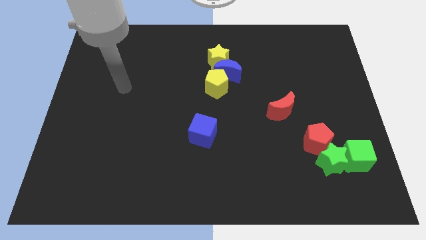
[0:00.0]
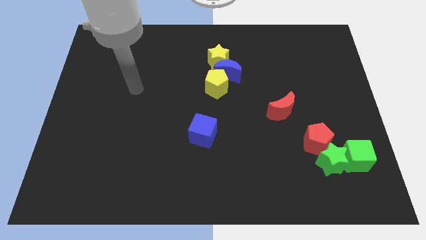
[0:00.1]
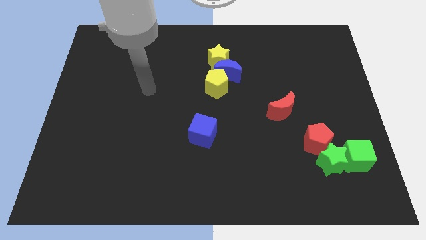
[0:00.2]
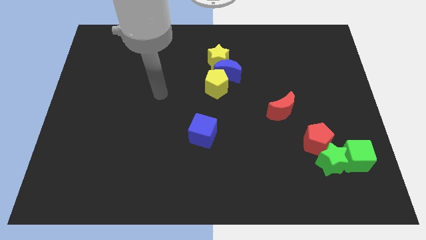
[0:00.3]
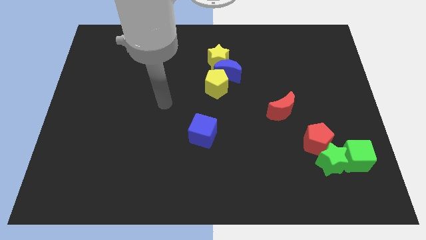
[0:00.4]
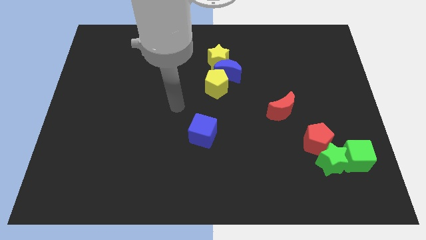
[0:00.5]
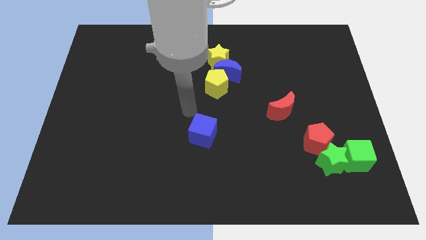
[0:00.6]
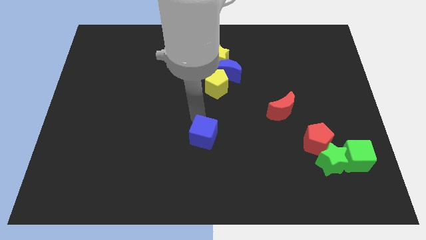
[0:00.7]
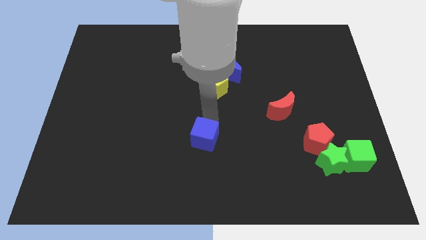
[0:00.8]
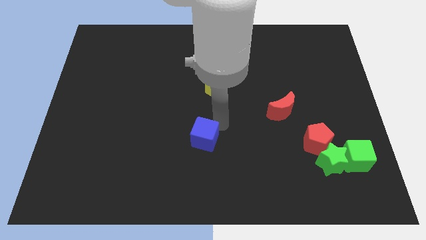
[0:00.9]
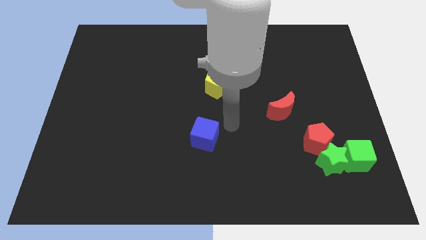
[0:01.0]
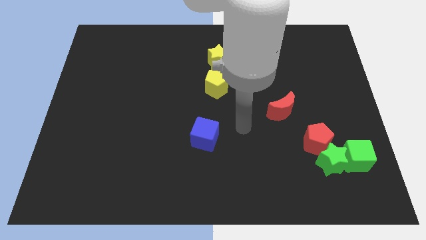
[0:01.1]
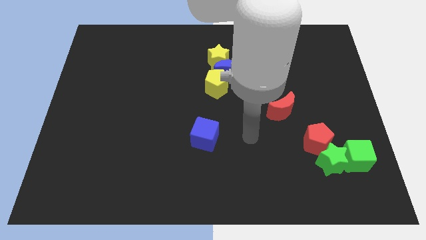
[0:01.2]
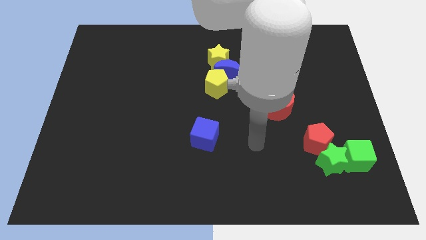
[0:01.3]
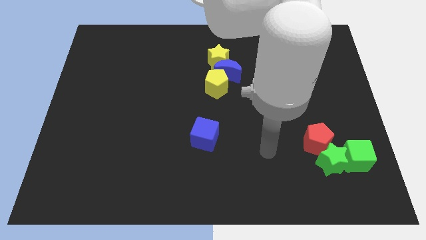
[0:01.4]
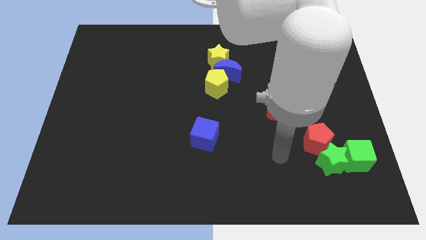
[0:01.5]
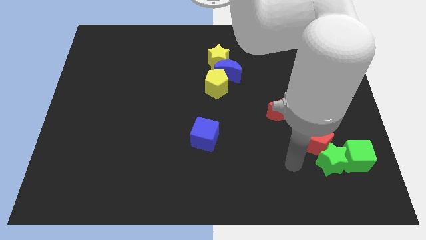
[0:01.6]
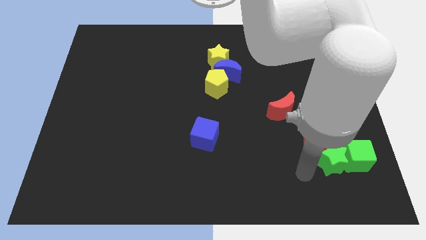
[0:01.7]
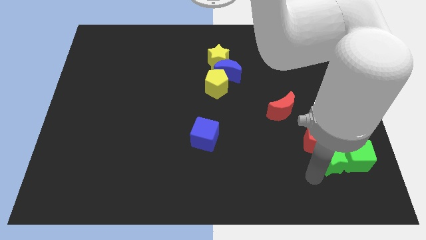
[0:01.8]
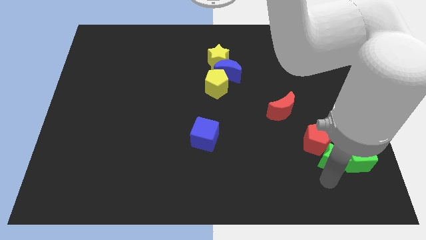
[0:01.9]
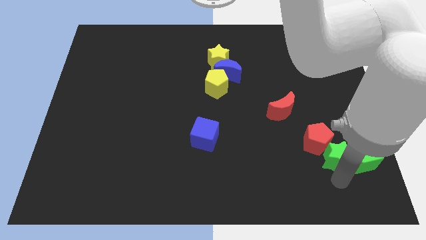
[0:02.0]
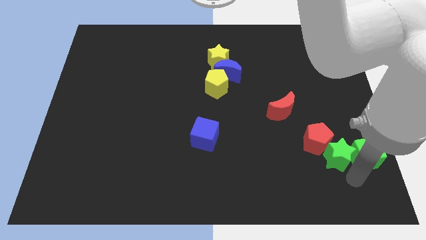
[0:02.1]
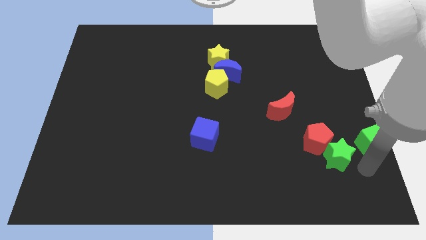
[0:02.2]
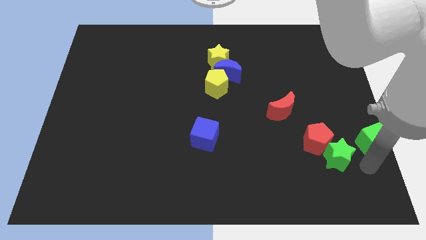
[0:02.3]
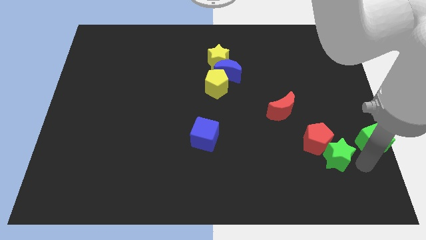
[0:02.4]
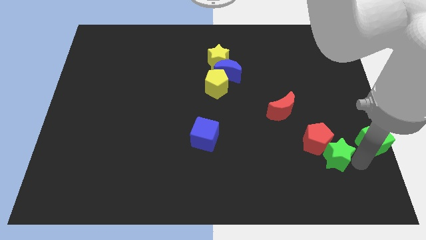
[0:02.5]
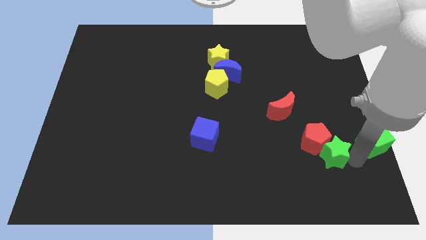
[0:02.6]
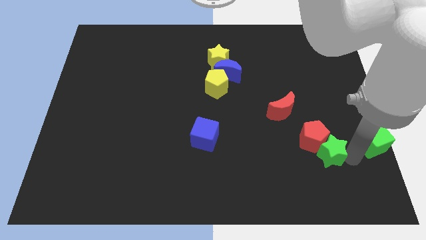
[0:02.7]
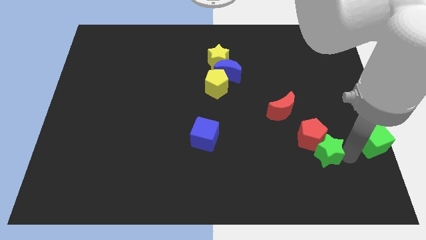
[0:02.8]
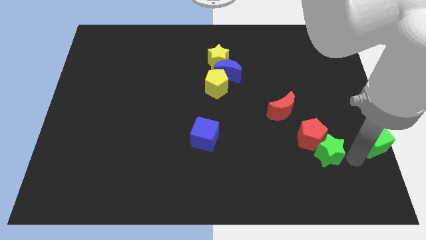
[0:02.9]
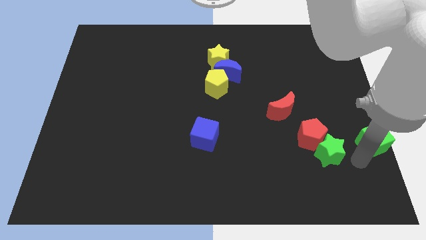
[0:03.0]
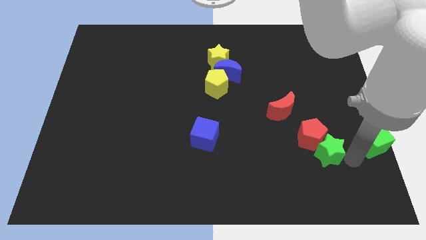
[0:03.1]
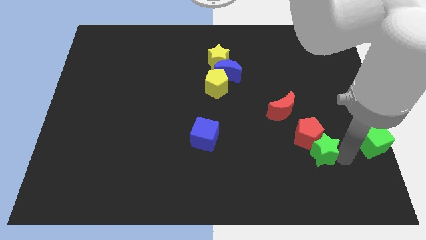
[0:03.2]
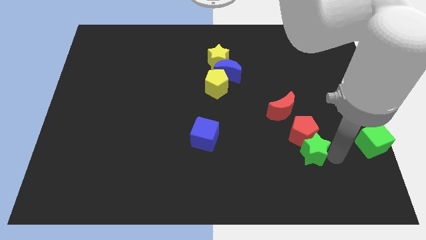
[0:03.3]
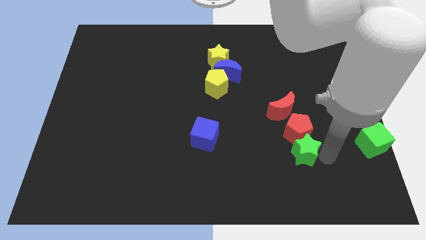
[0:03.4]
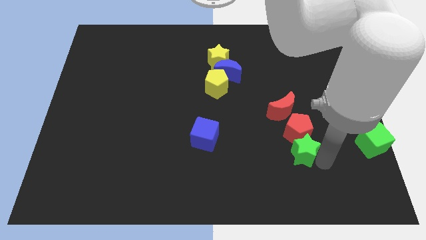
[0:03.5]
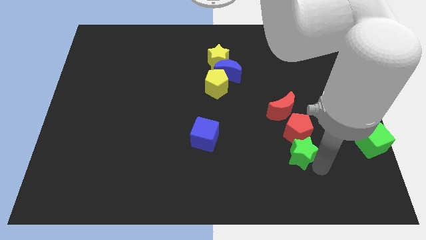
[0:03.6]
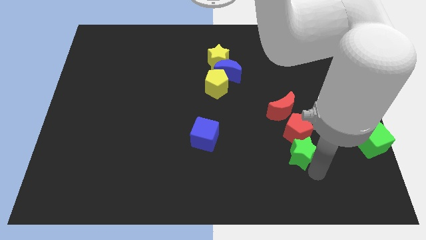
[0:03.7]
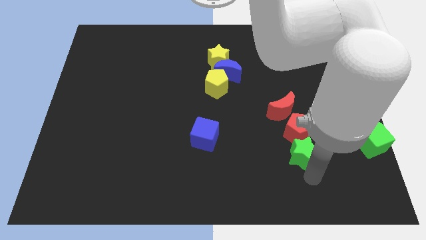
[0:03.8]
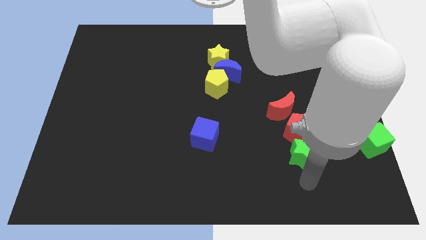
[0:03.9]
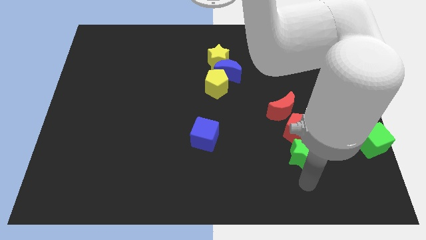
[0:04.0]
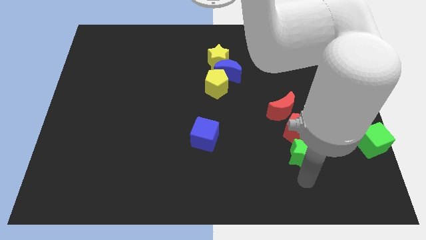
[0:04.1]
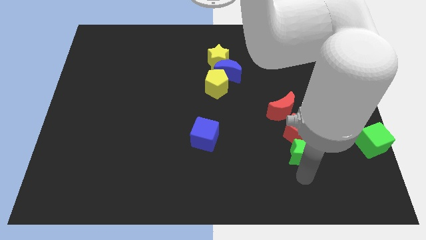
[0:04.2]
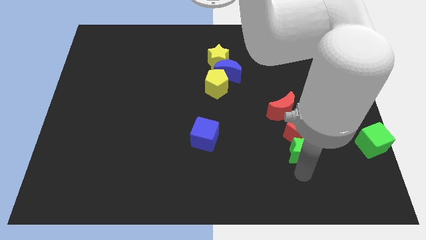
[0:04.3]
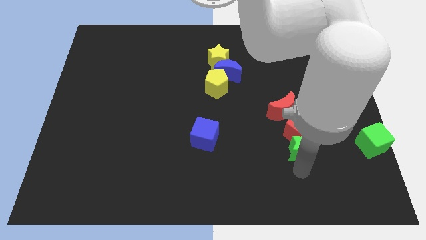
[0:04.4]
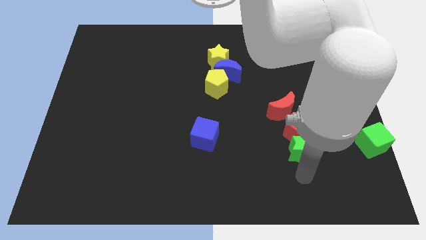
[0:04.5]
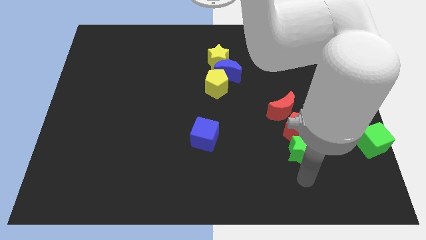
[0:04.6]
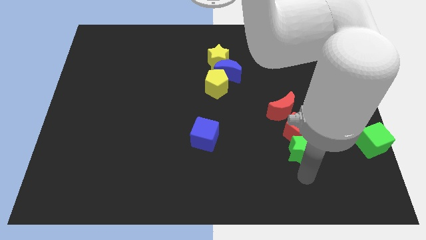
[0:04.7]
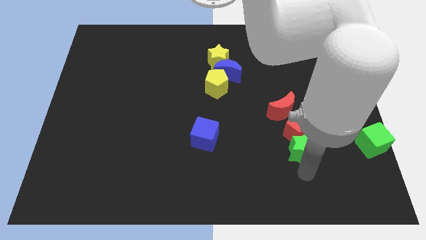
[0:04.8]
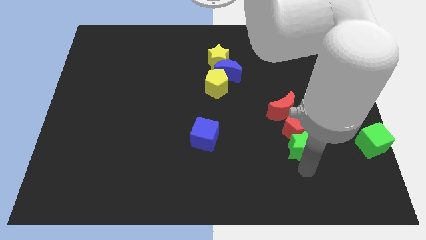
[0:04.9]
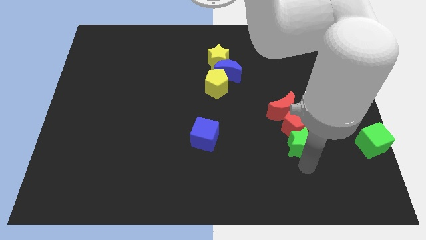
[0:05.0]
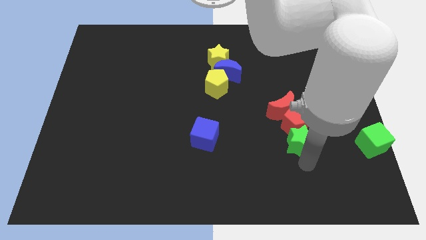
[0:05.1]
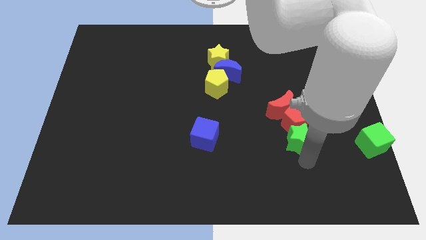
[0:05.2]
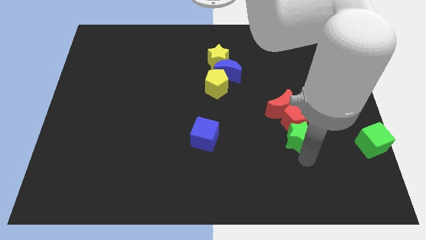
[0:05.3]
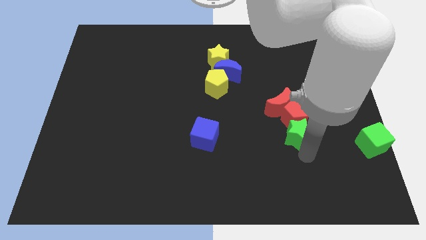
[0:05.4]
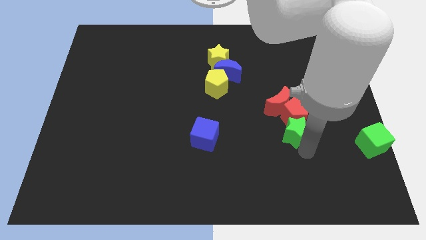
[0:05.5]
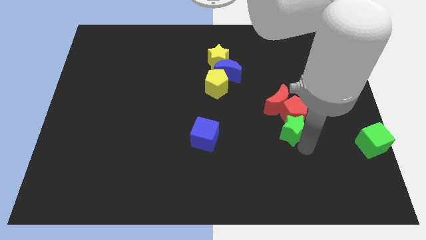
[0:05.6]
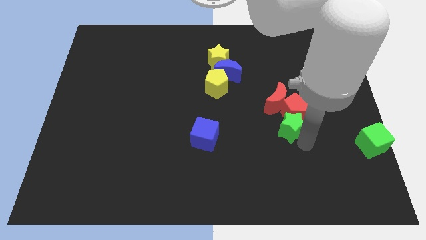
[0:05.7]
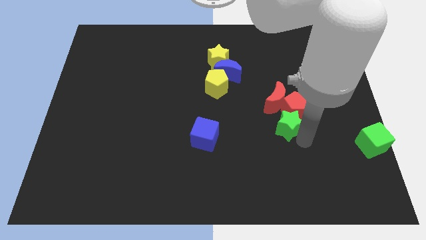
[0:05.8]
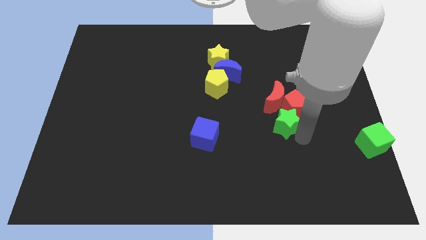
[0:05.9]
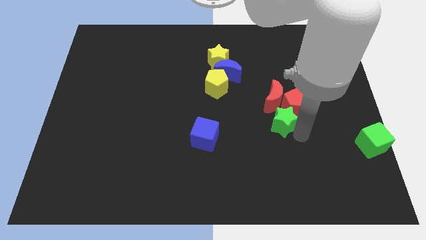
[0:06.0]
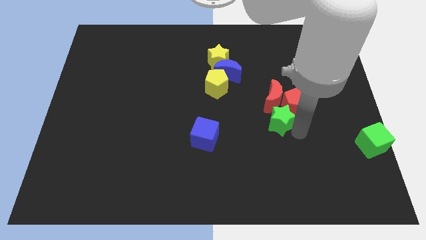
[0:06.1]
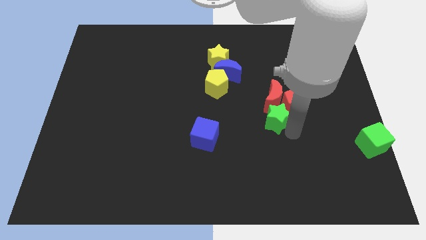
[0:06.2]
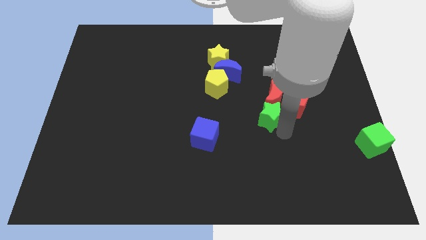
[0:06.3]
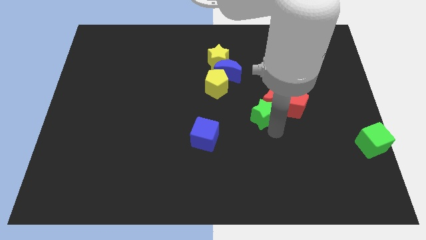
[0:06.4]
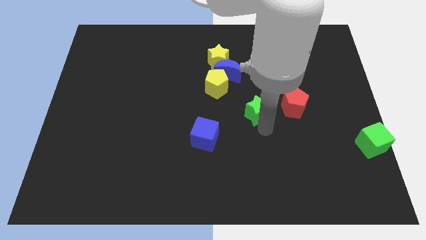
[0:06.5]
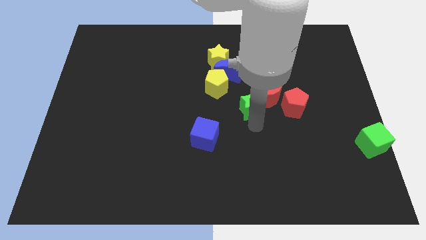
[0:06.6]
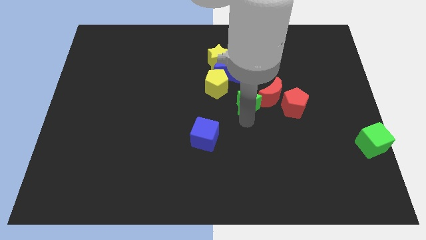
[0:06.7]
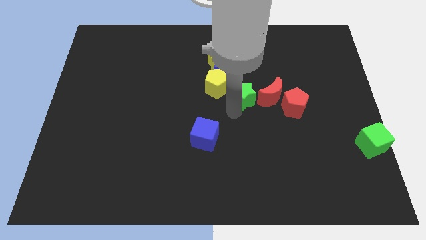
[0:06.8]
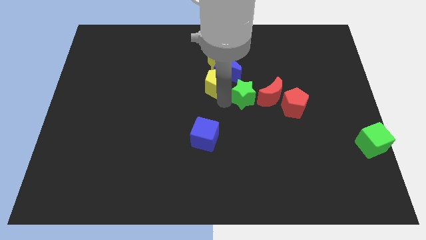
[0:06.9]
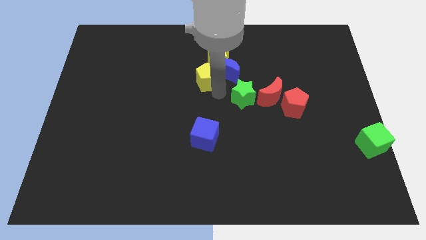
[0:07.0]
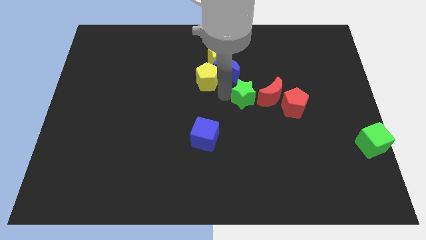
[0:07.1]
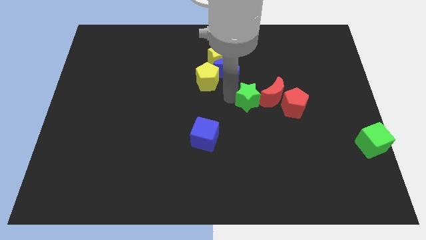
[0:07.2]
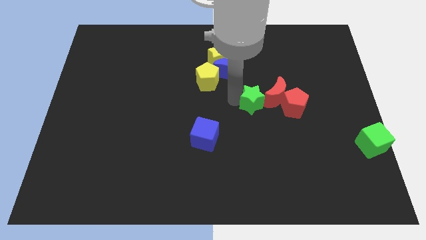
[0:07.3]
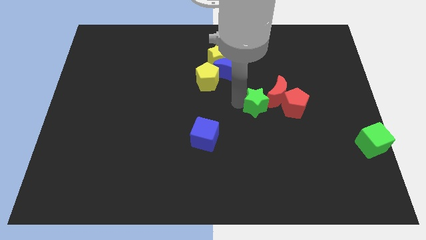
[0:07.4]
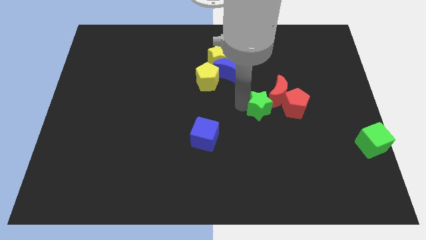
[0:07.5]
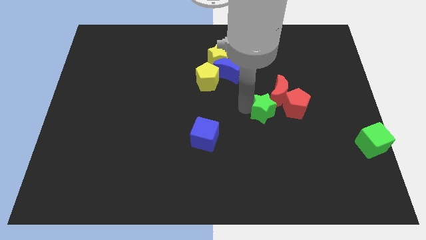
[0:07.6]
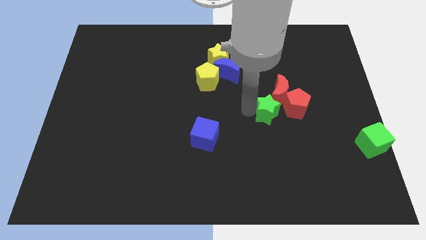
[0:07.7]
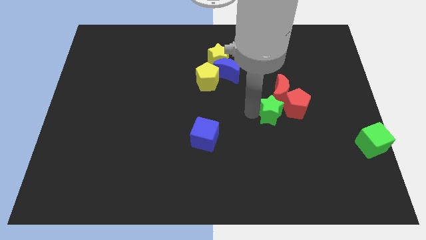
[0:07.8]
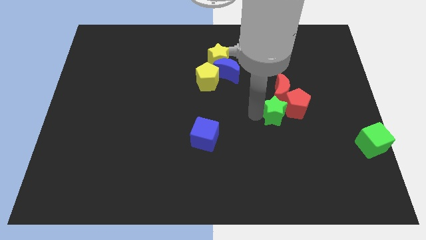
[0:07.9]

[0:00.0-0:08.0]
slide the green star a bit upwards

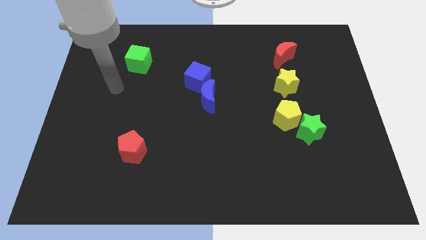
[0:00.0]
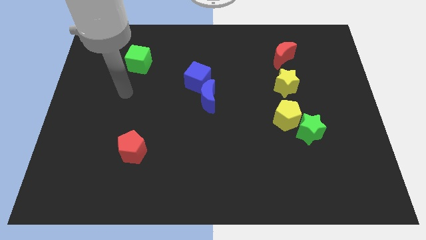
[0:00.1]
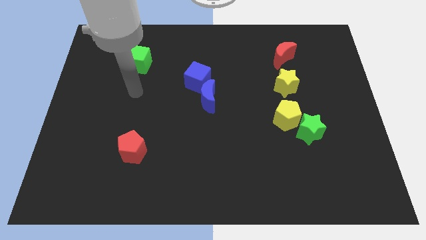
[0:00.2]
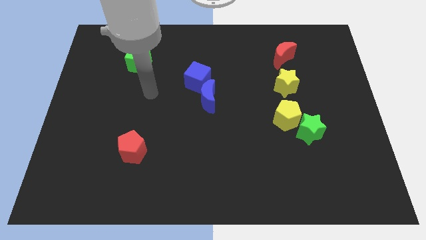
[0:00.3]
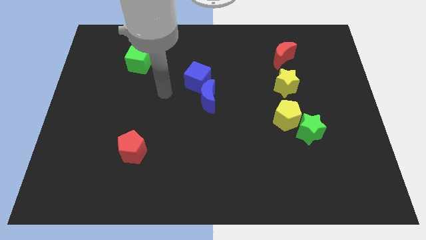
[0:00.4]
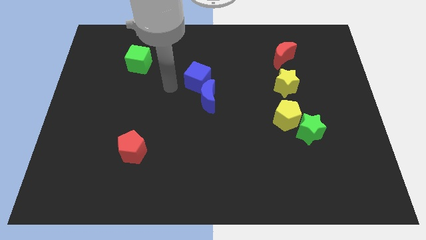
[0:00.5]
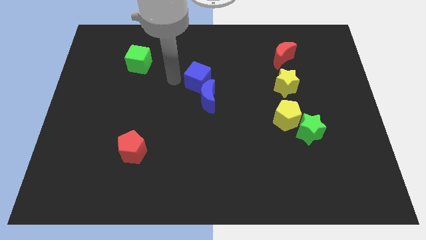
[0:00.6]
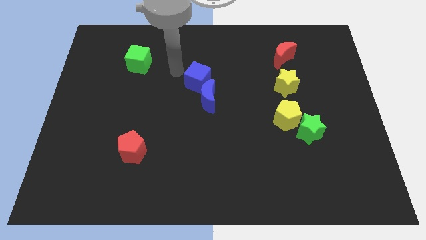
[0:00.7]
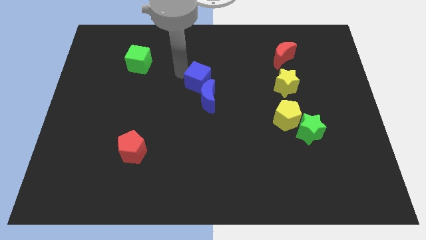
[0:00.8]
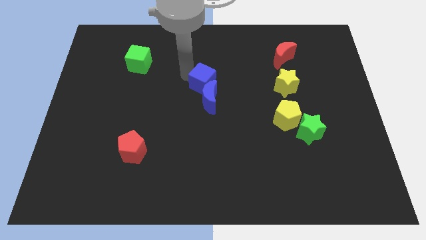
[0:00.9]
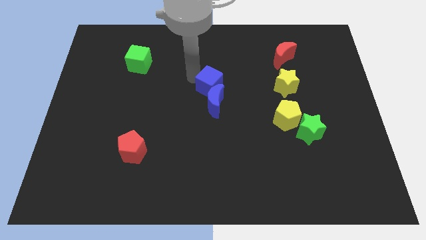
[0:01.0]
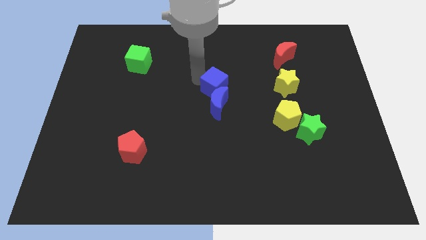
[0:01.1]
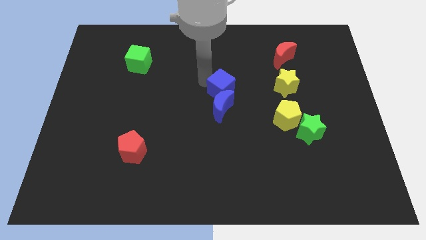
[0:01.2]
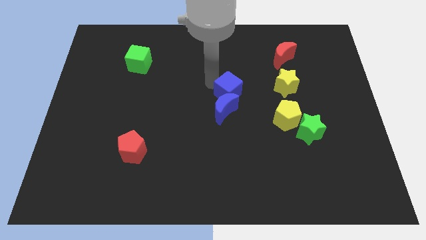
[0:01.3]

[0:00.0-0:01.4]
slightly move the blue cube down and right
